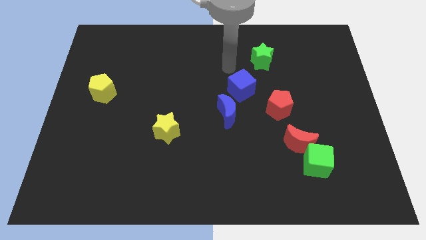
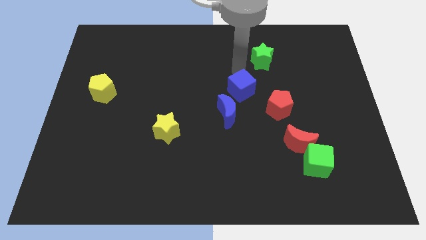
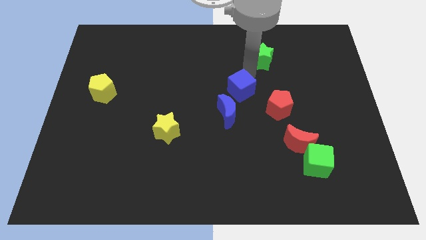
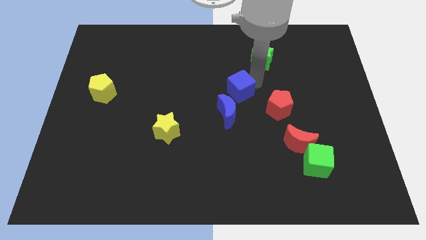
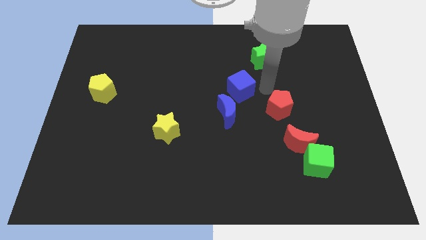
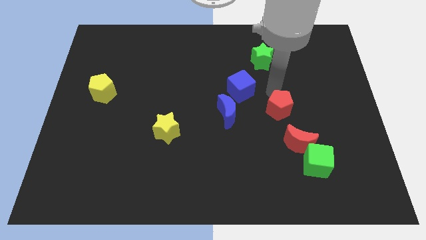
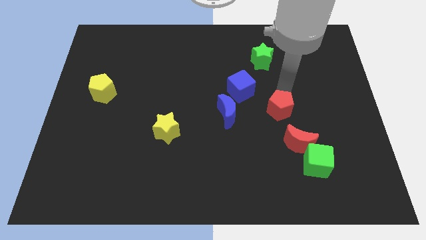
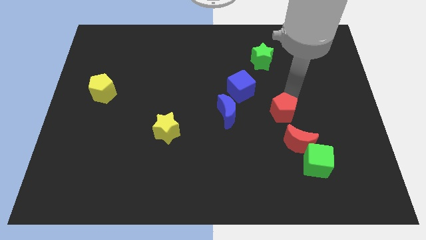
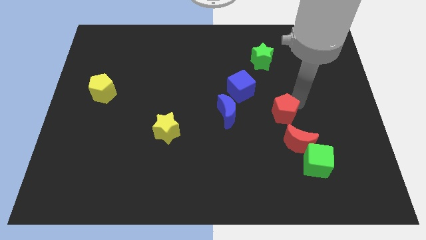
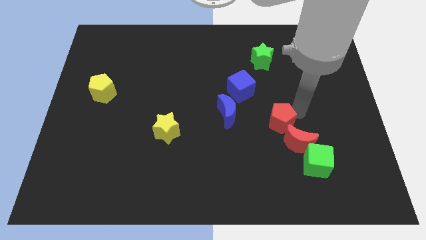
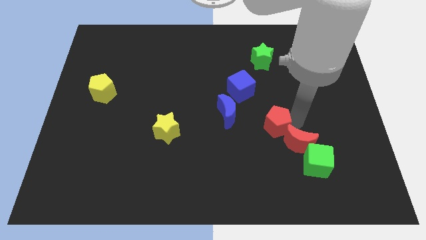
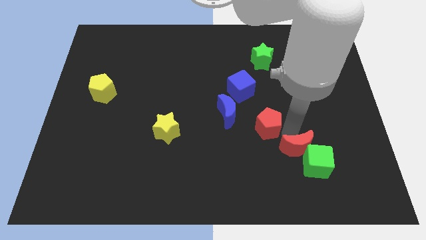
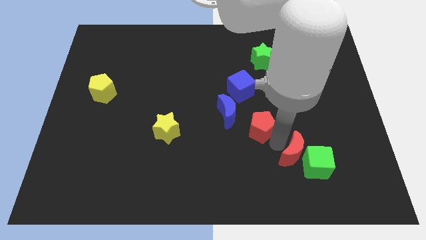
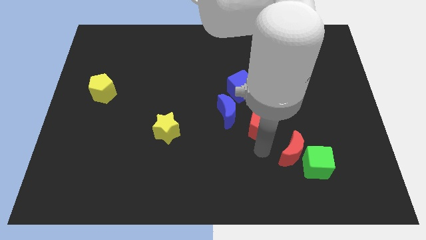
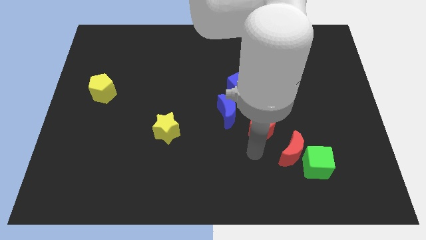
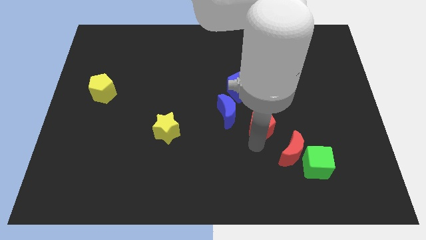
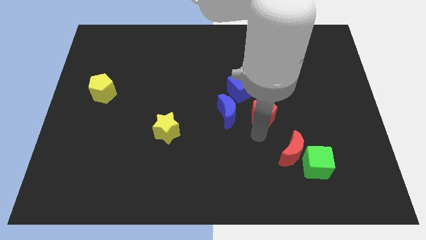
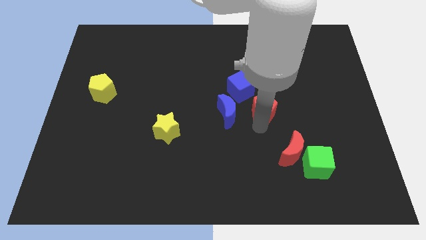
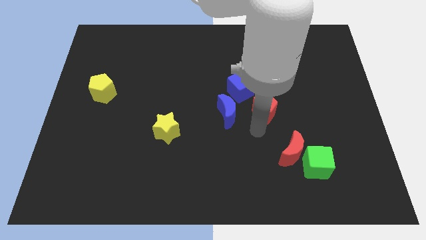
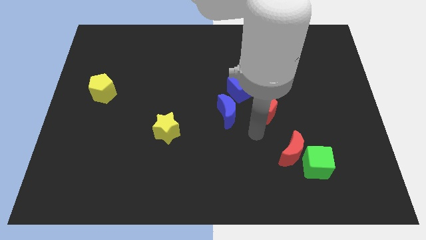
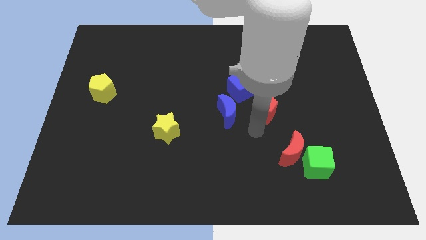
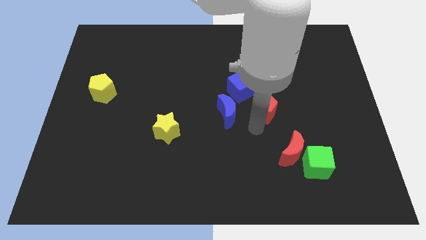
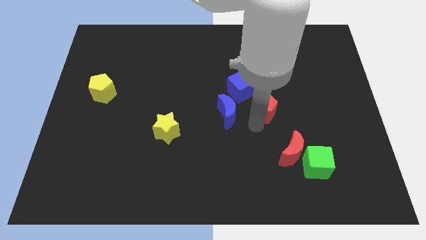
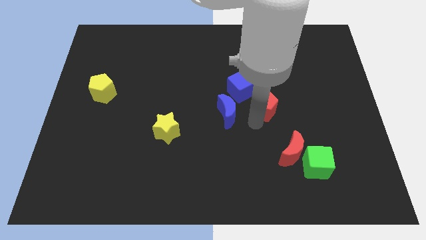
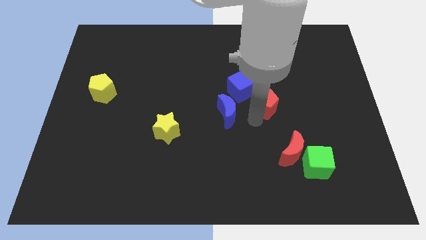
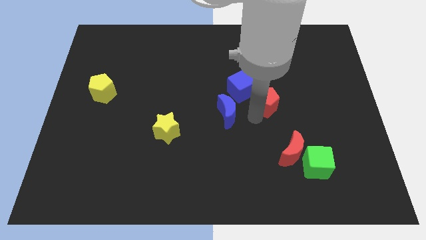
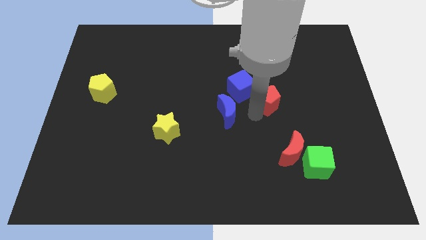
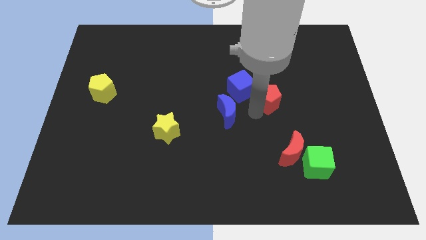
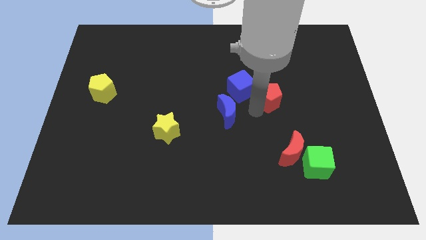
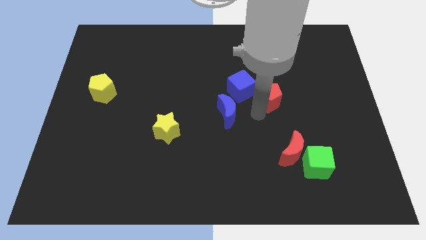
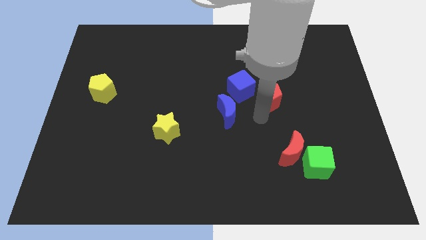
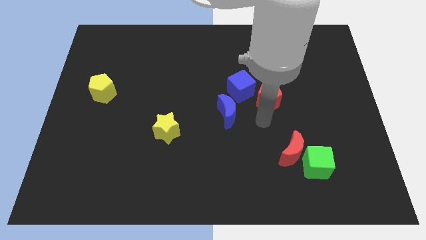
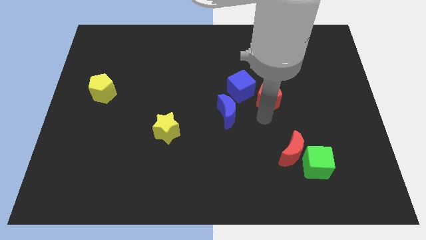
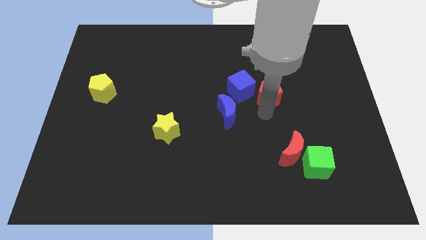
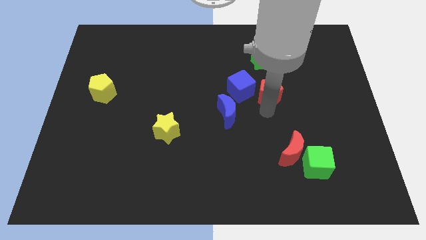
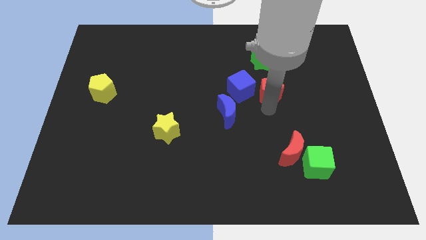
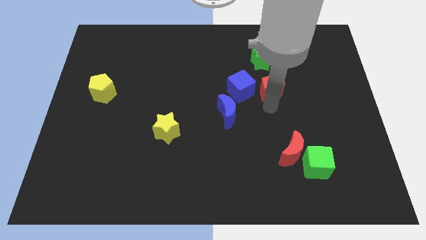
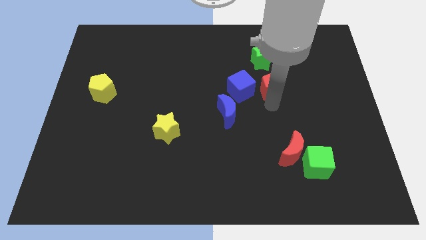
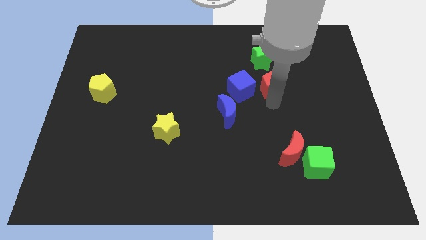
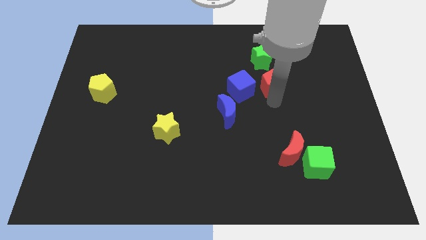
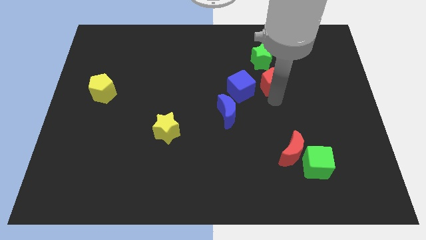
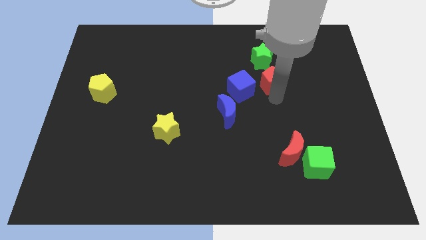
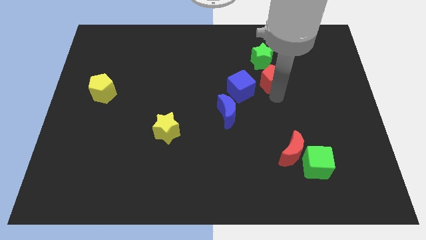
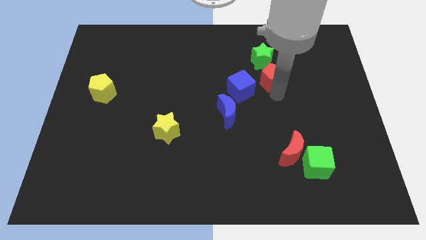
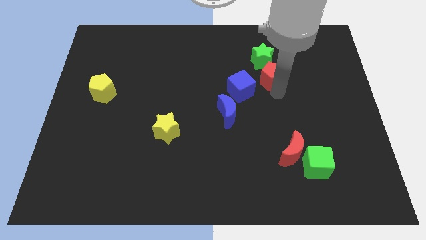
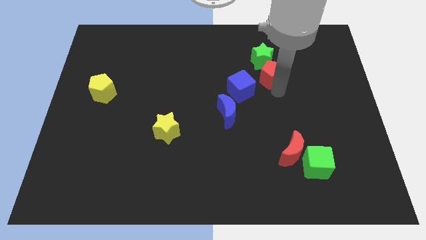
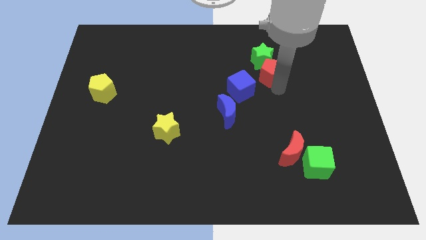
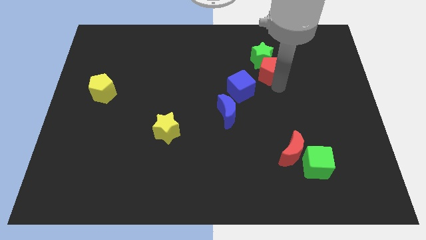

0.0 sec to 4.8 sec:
push the red pentagon upwards and to the left slightly

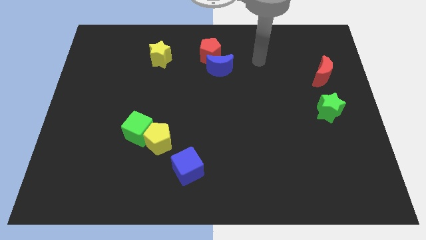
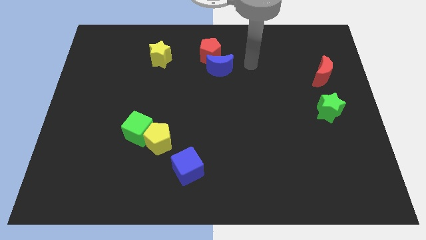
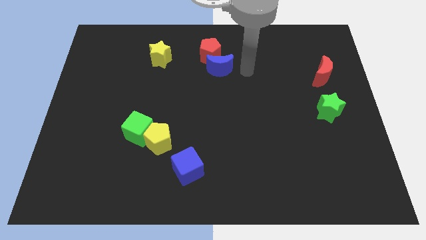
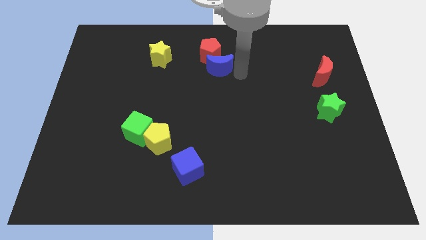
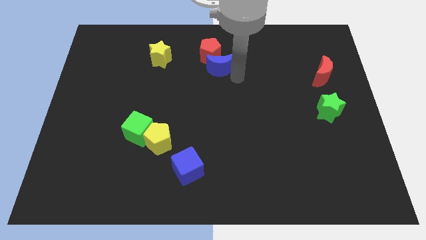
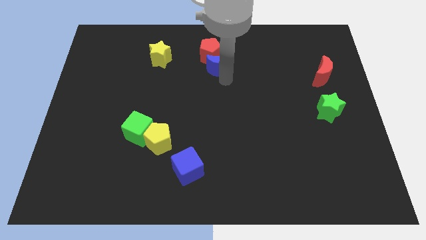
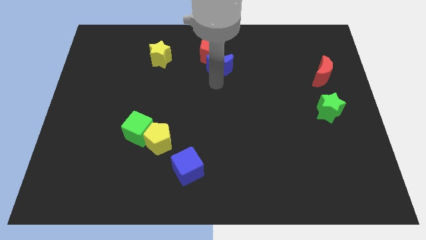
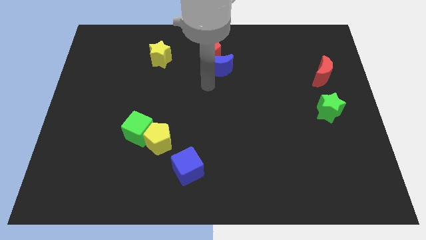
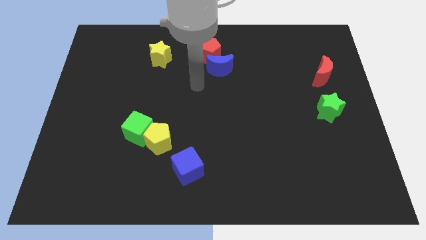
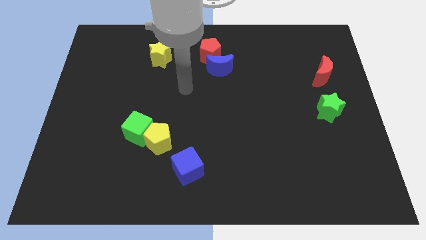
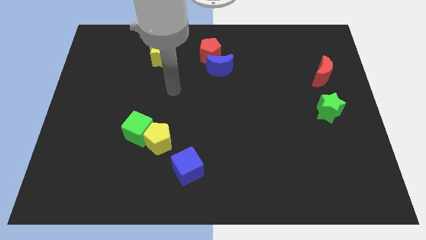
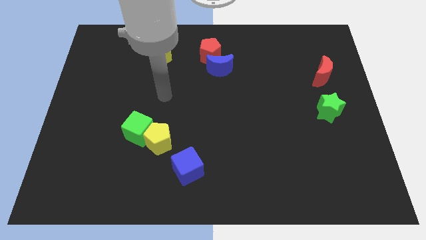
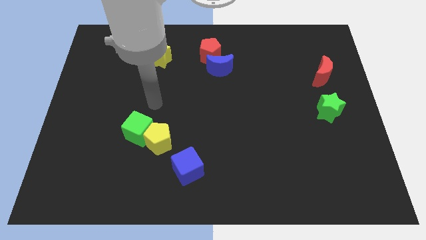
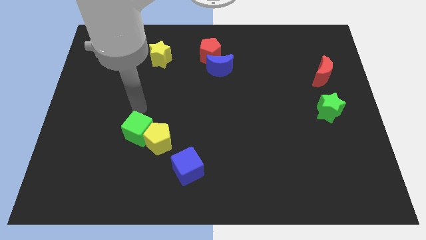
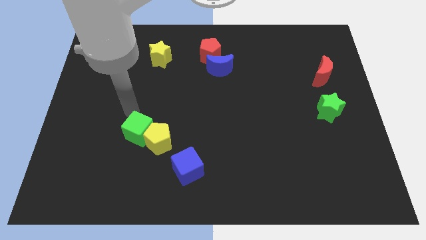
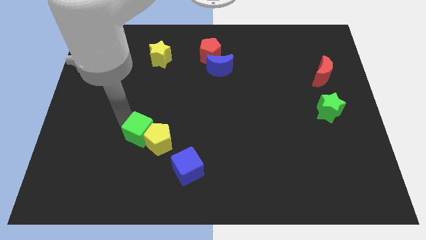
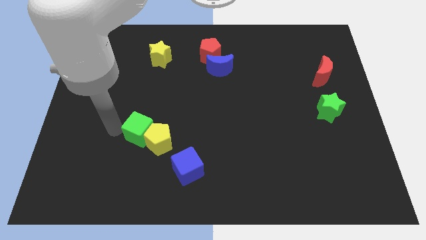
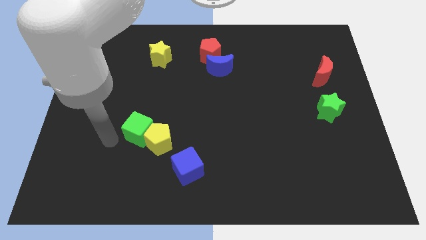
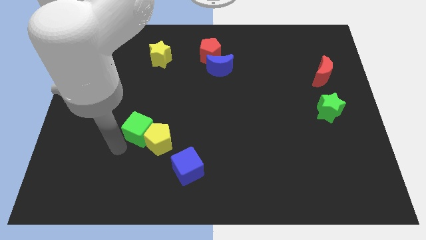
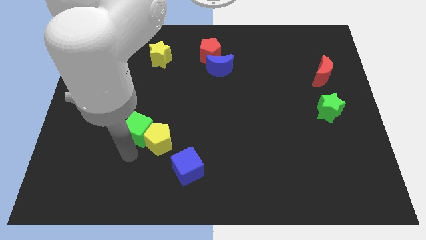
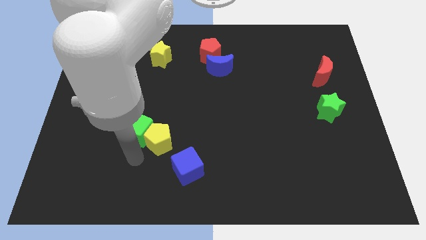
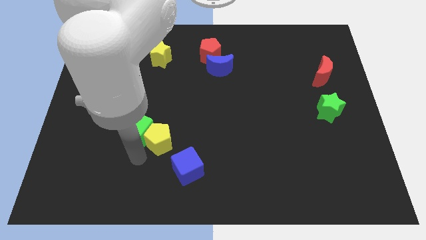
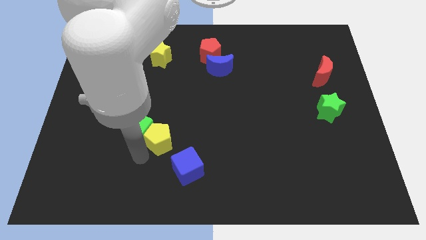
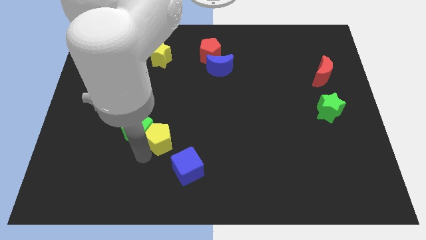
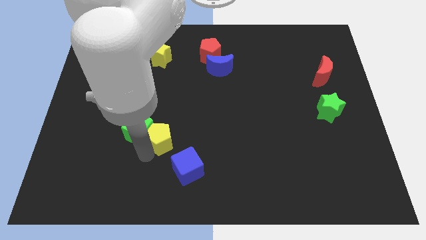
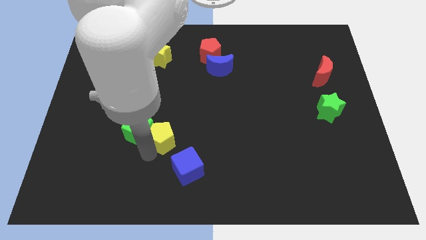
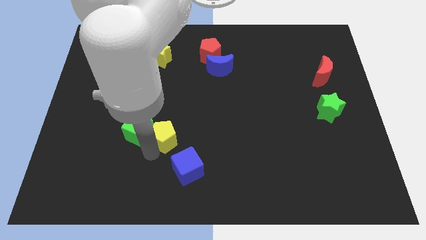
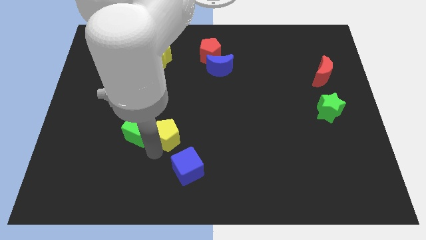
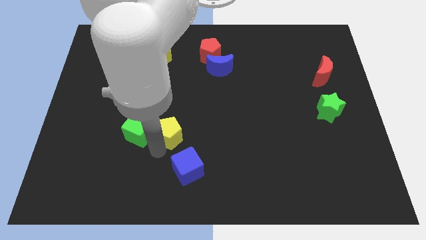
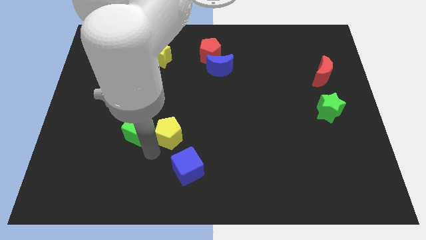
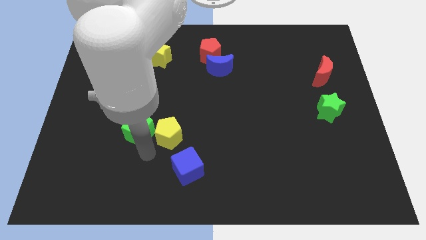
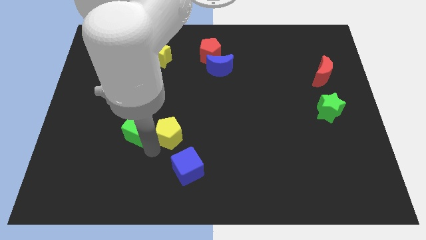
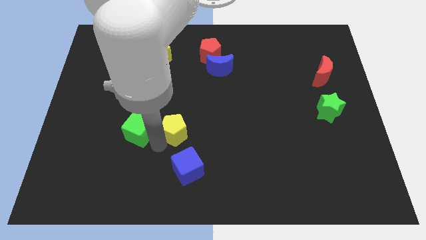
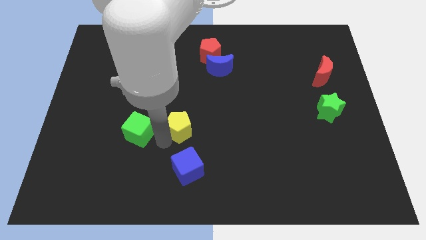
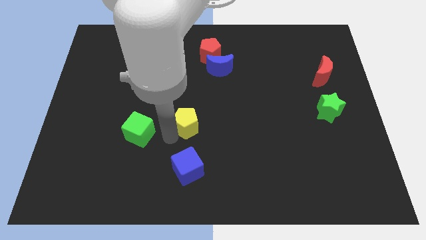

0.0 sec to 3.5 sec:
slide the yellow pentagon somewhat upwards and then to the right
